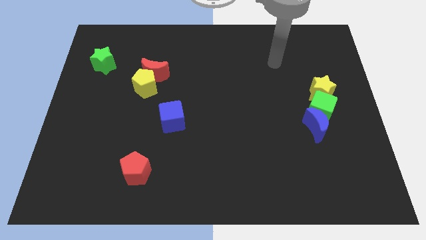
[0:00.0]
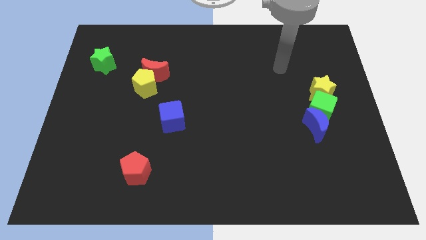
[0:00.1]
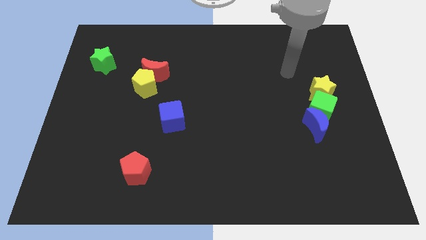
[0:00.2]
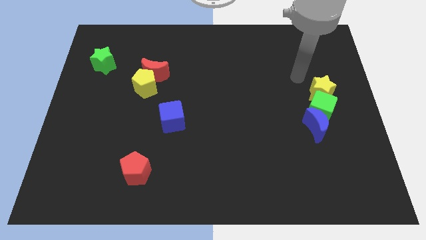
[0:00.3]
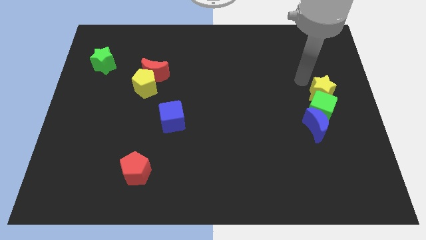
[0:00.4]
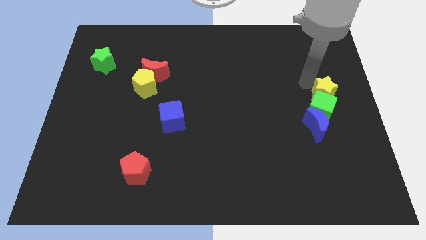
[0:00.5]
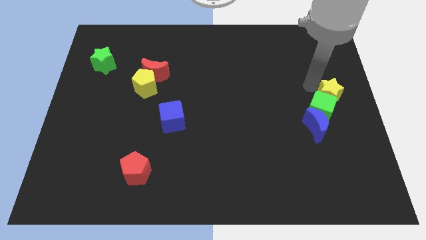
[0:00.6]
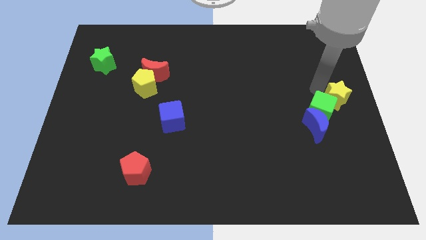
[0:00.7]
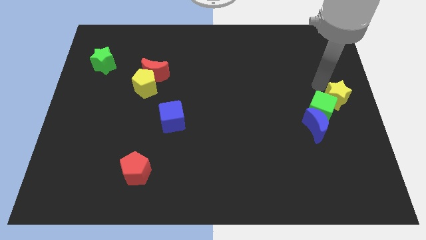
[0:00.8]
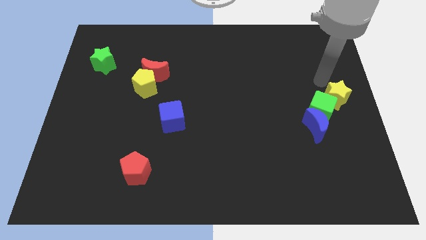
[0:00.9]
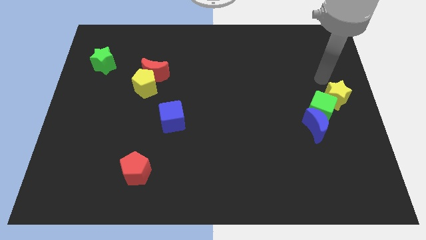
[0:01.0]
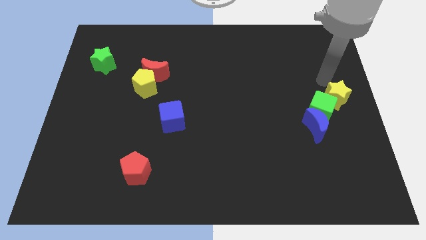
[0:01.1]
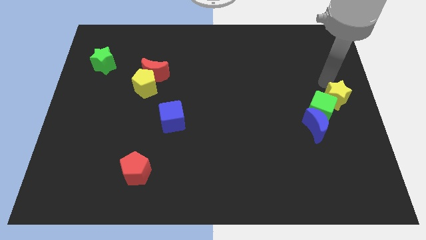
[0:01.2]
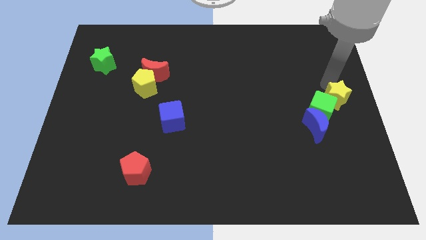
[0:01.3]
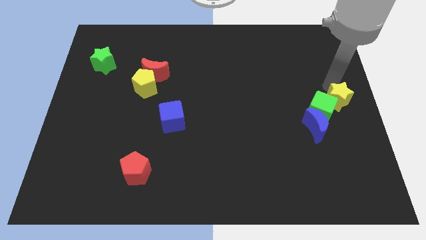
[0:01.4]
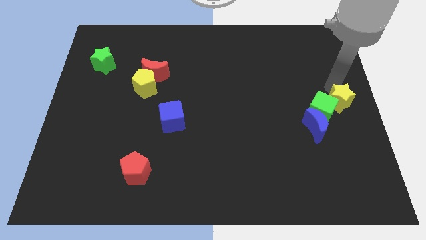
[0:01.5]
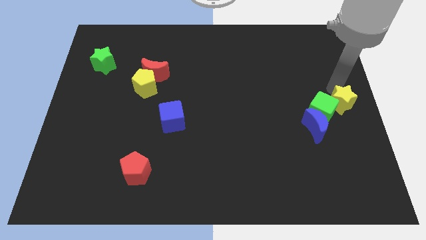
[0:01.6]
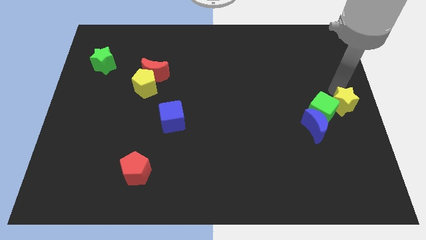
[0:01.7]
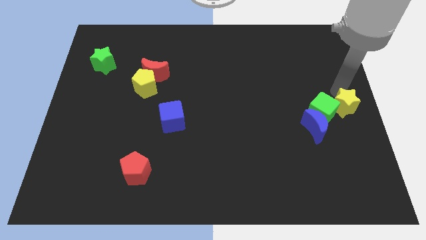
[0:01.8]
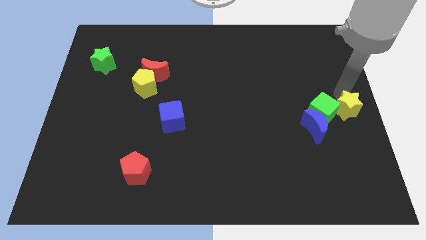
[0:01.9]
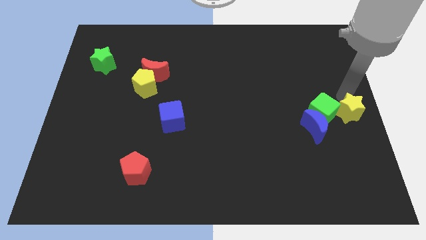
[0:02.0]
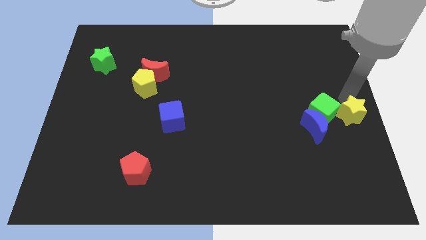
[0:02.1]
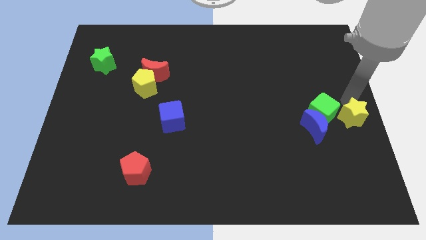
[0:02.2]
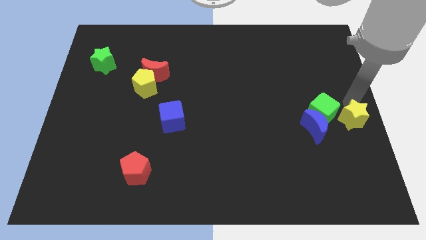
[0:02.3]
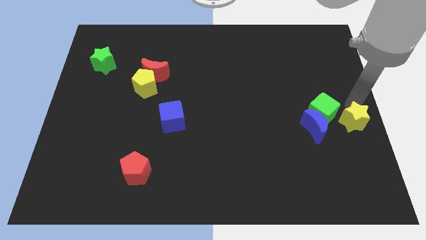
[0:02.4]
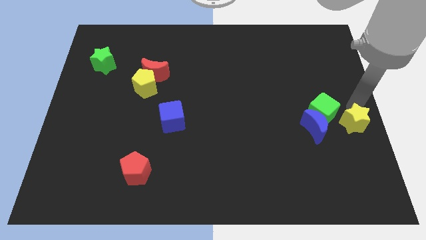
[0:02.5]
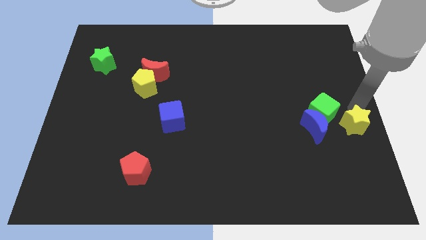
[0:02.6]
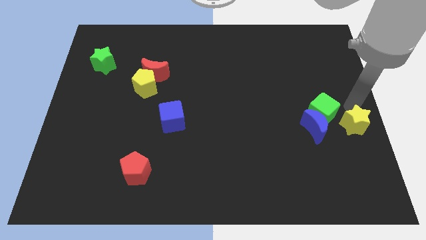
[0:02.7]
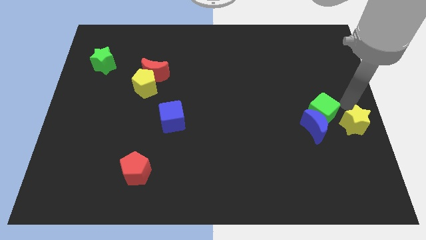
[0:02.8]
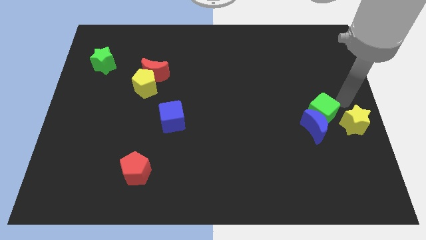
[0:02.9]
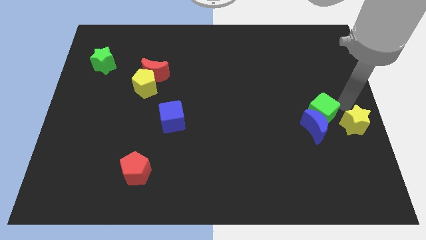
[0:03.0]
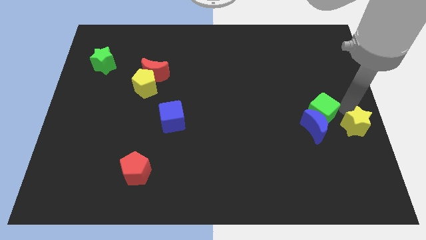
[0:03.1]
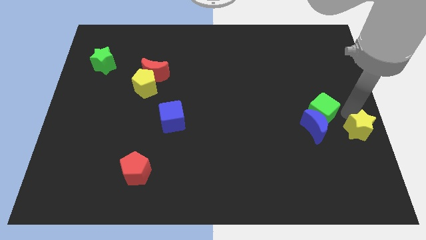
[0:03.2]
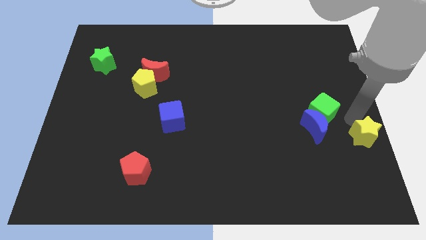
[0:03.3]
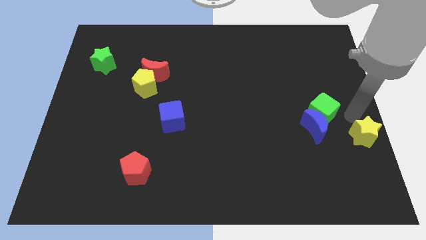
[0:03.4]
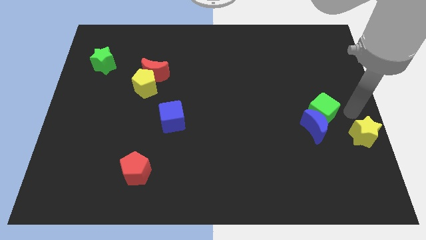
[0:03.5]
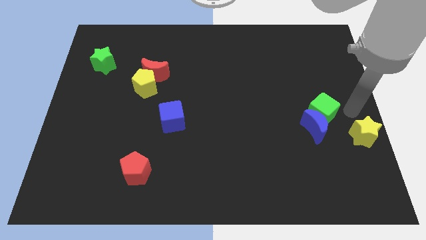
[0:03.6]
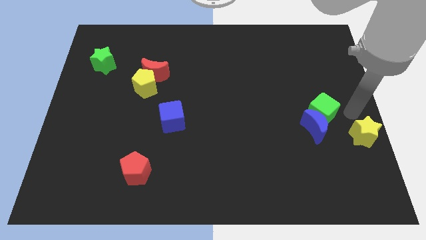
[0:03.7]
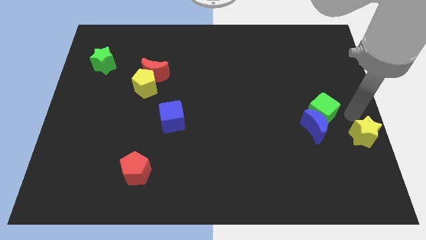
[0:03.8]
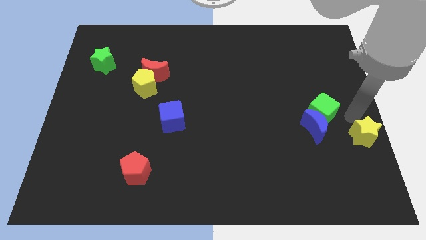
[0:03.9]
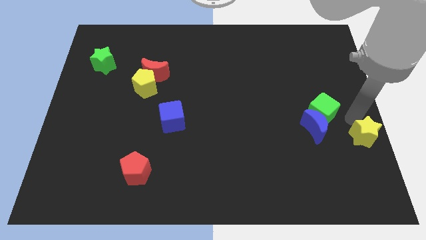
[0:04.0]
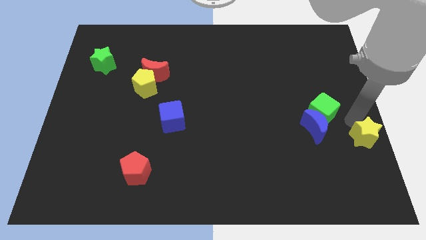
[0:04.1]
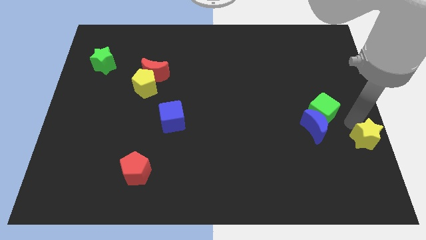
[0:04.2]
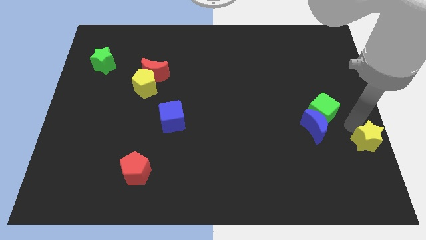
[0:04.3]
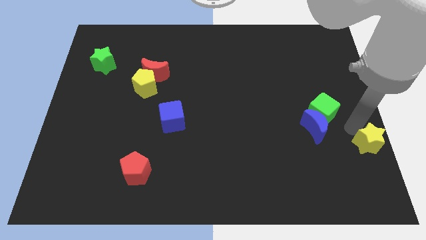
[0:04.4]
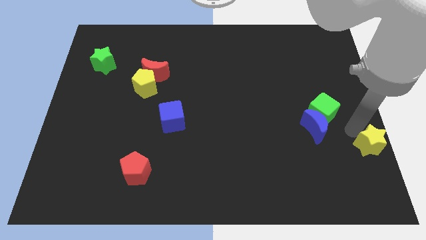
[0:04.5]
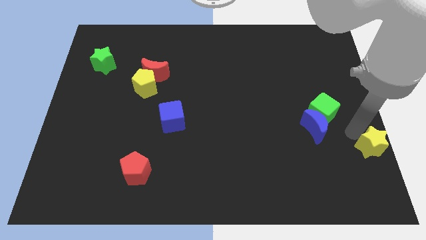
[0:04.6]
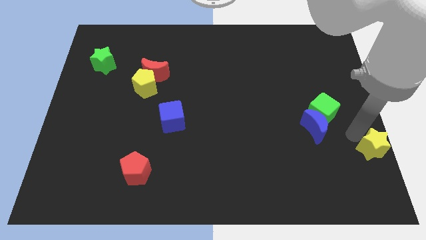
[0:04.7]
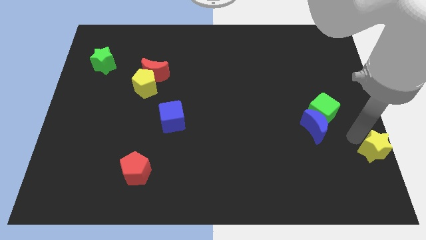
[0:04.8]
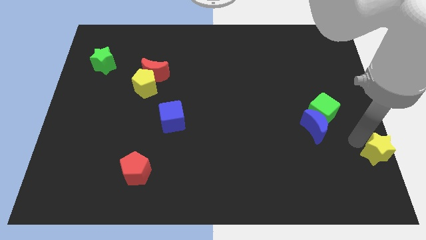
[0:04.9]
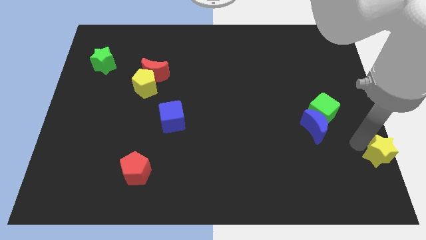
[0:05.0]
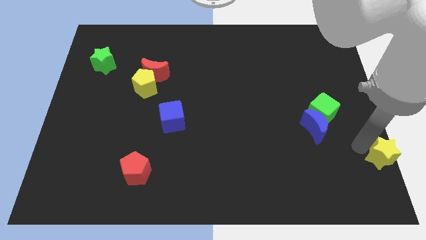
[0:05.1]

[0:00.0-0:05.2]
slide the yellow star to the lower right corner

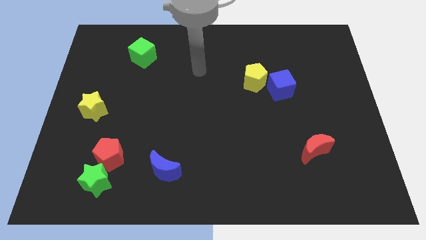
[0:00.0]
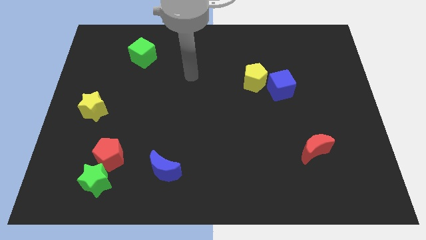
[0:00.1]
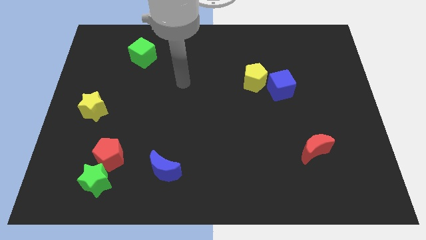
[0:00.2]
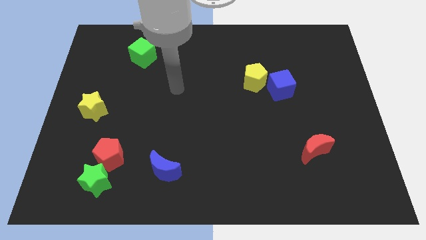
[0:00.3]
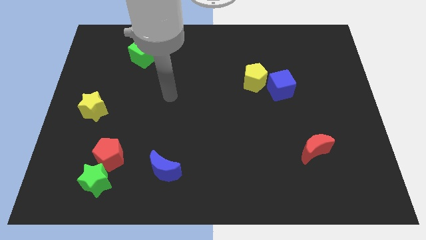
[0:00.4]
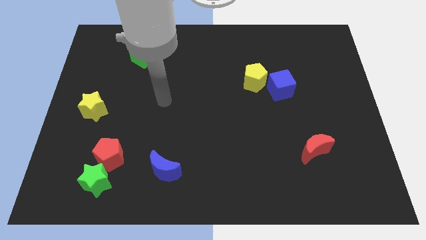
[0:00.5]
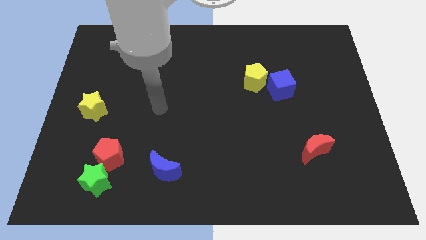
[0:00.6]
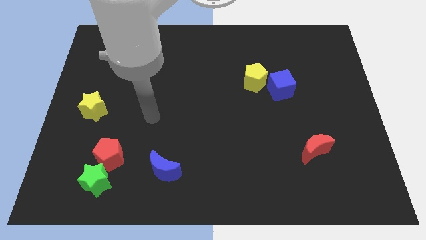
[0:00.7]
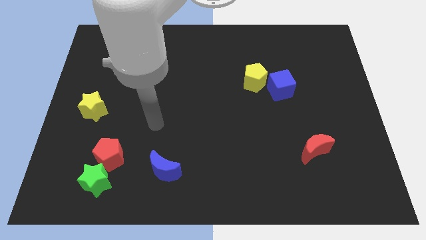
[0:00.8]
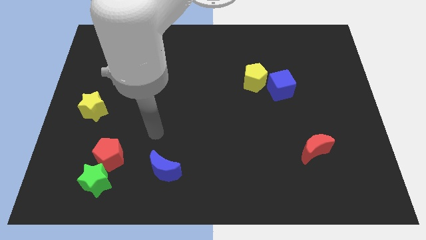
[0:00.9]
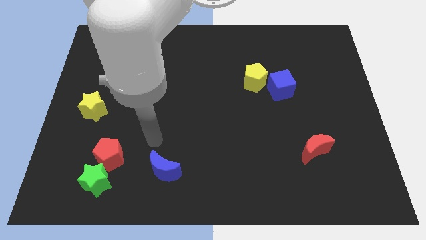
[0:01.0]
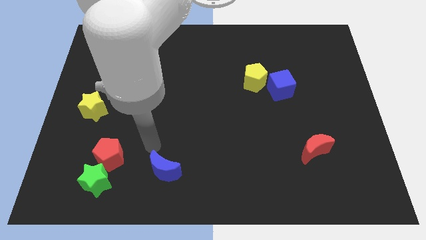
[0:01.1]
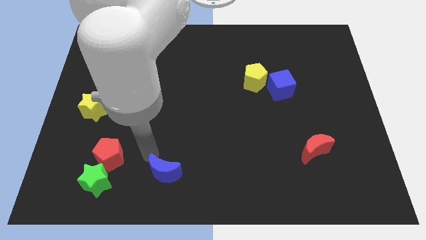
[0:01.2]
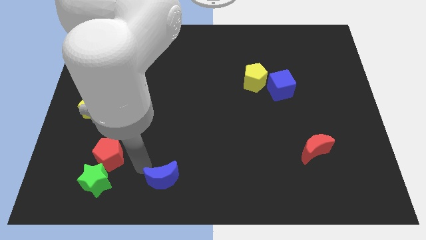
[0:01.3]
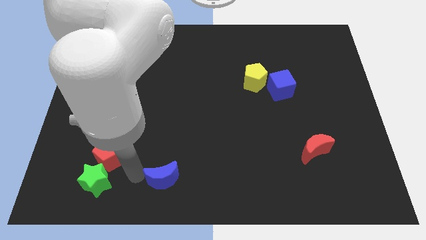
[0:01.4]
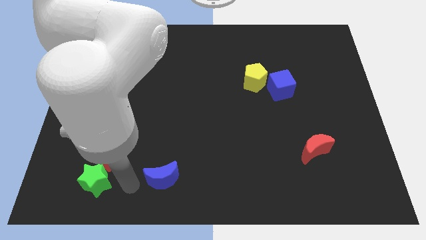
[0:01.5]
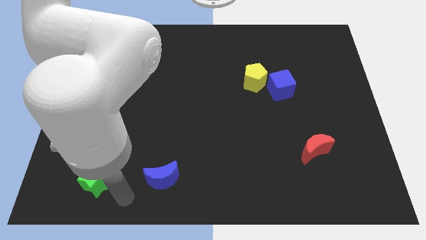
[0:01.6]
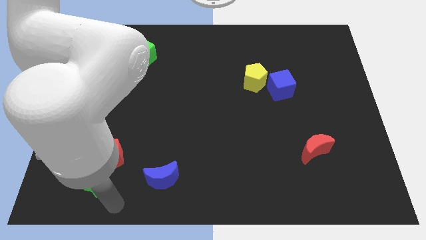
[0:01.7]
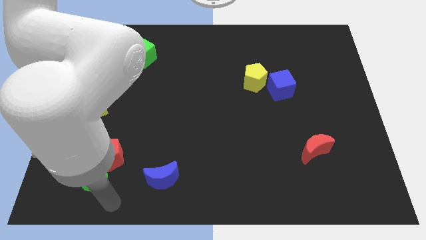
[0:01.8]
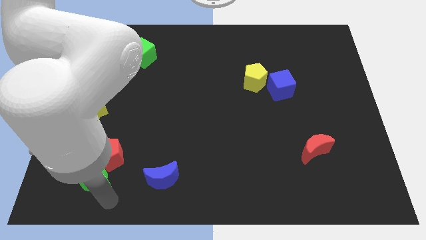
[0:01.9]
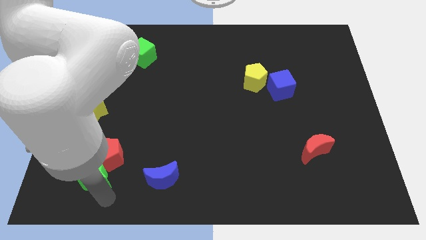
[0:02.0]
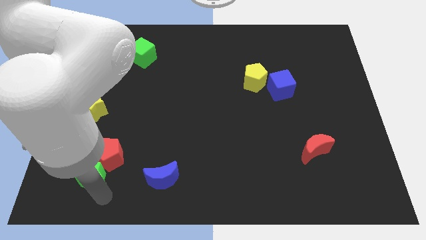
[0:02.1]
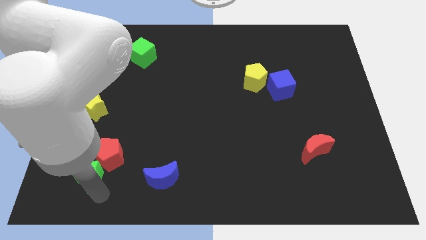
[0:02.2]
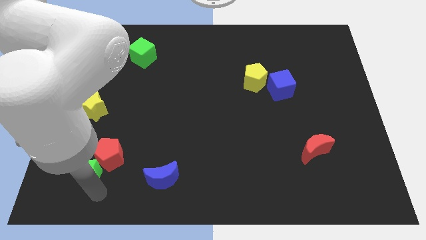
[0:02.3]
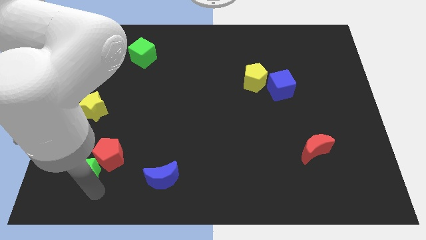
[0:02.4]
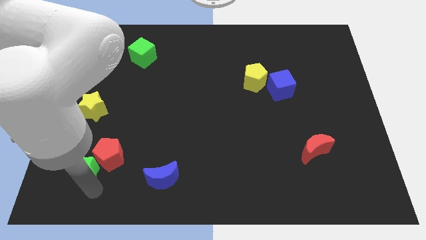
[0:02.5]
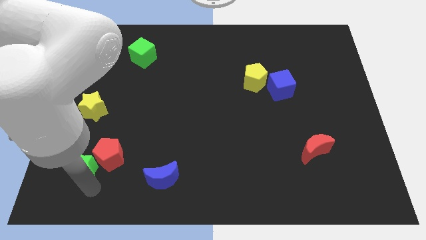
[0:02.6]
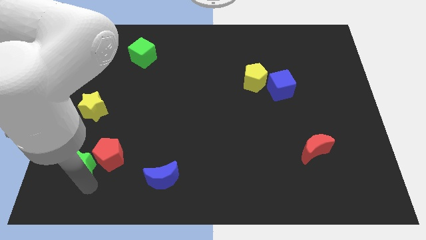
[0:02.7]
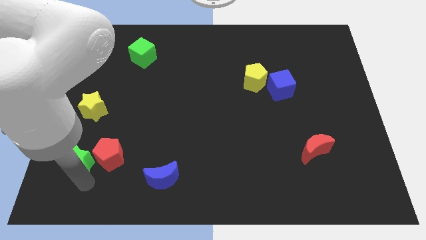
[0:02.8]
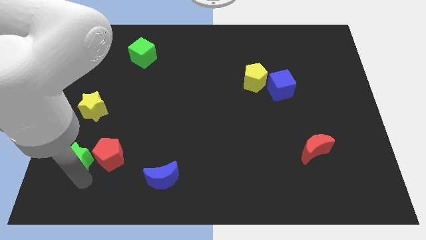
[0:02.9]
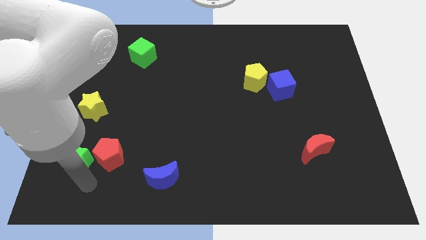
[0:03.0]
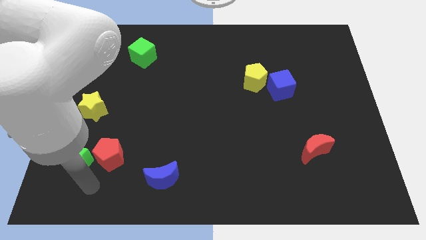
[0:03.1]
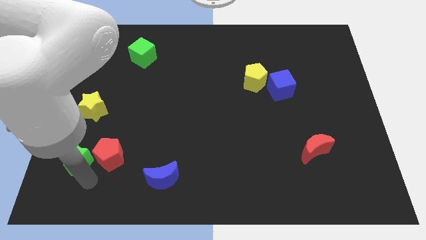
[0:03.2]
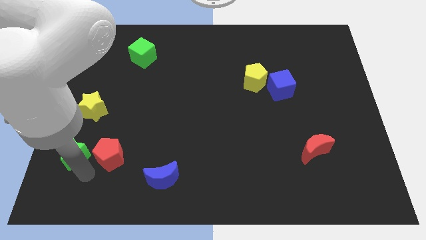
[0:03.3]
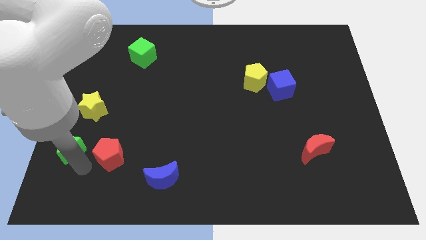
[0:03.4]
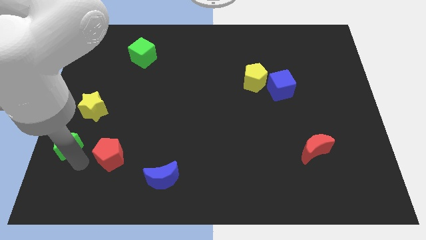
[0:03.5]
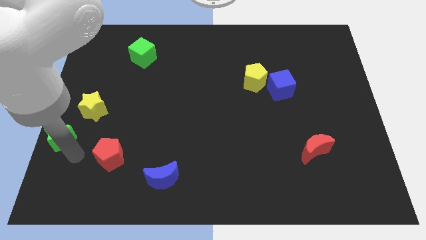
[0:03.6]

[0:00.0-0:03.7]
move the green star to the left side of the board
